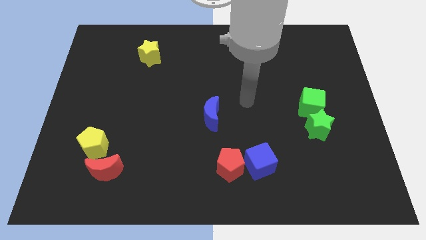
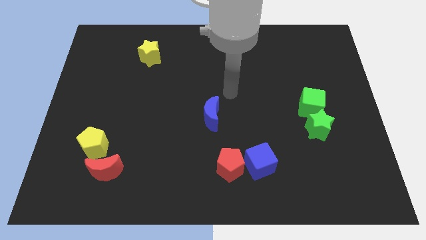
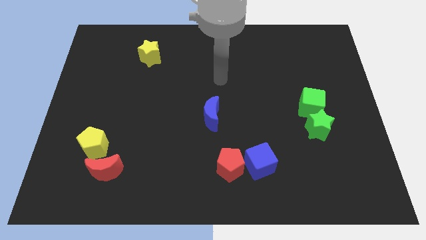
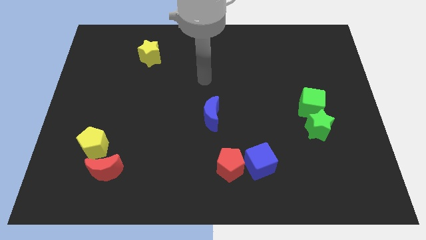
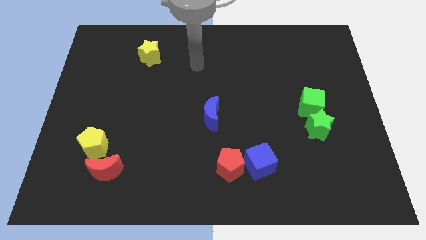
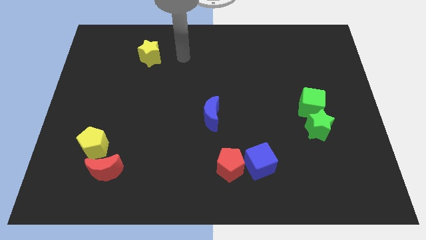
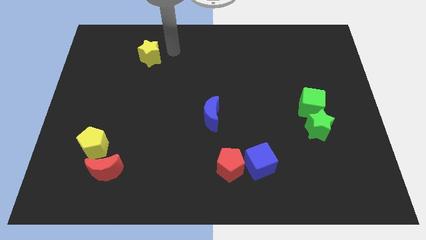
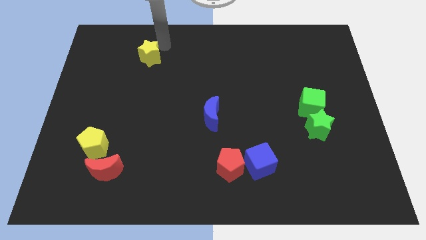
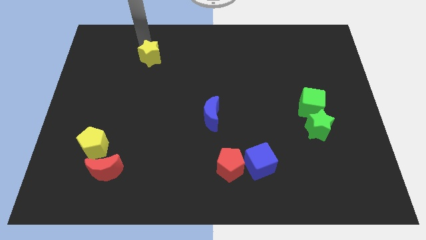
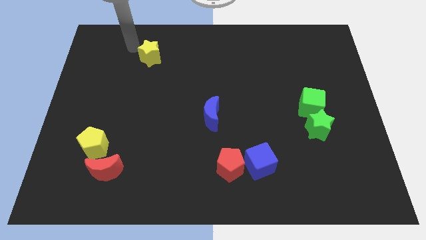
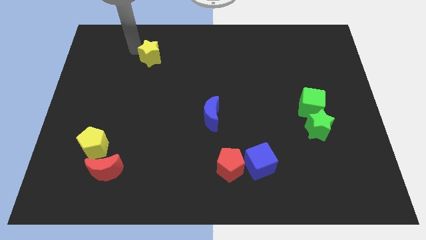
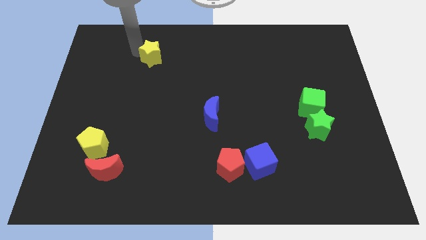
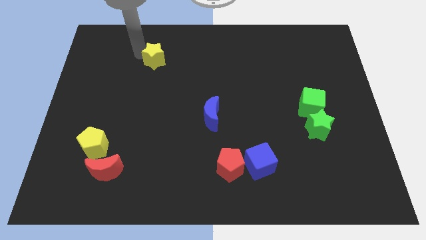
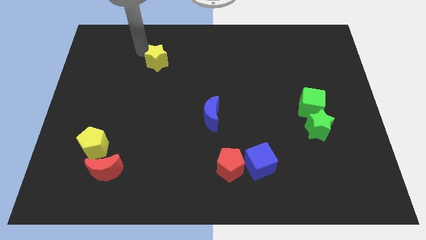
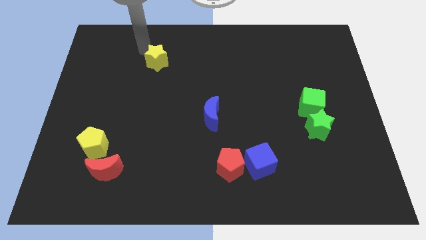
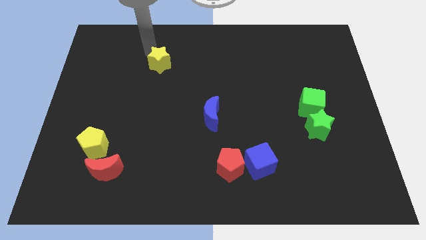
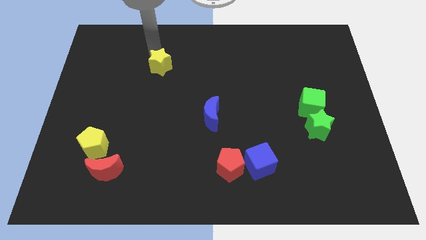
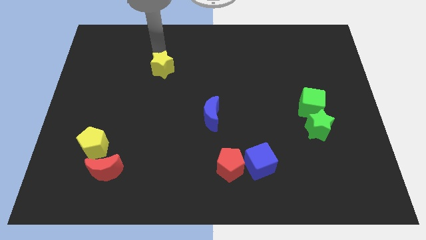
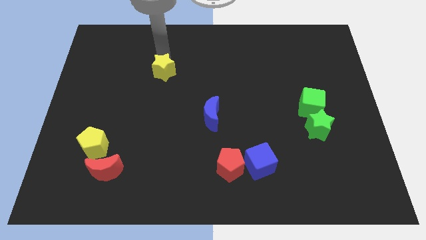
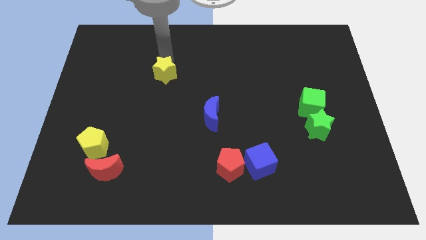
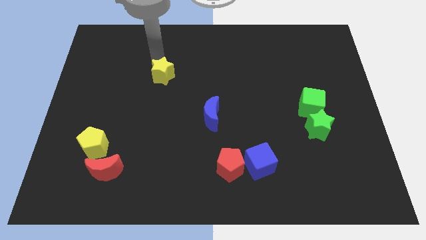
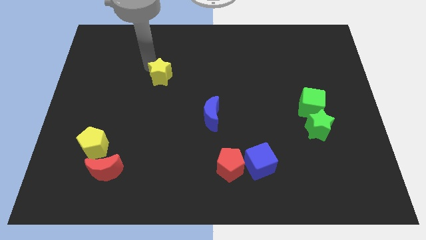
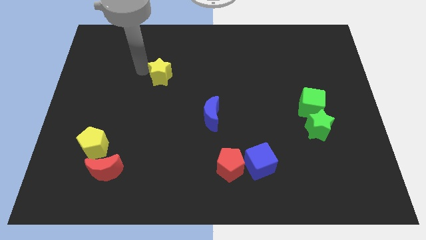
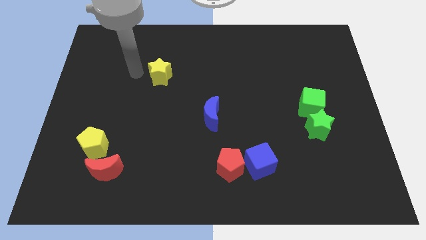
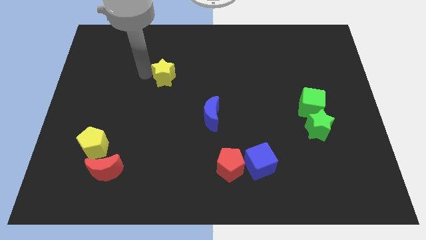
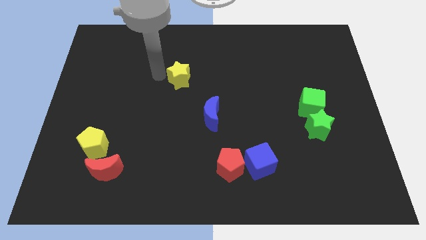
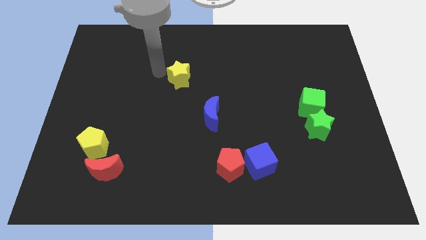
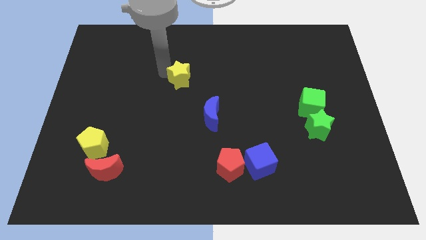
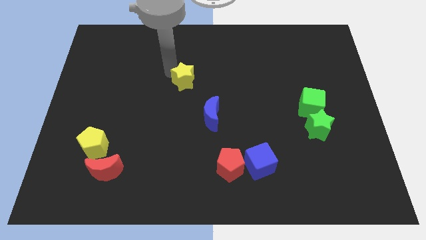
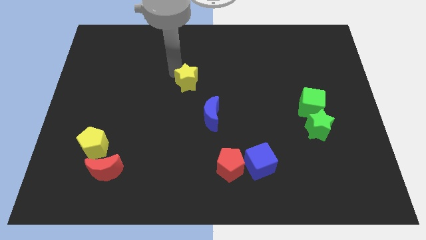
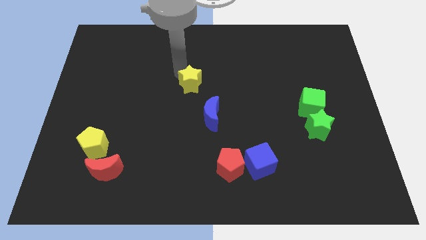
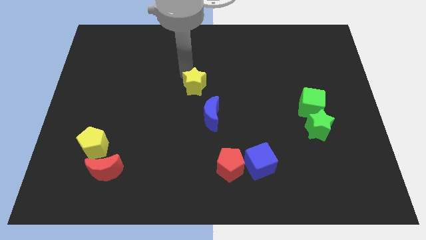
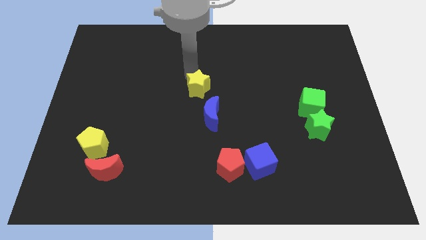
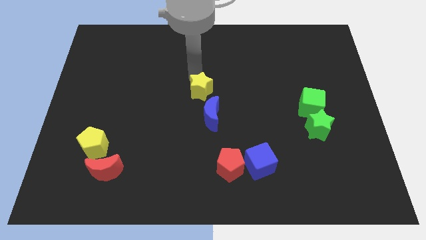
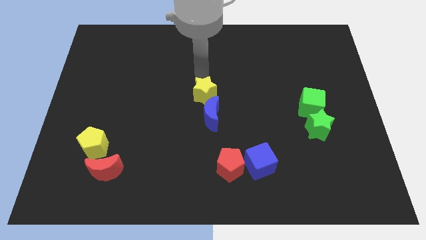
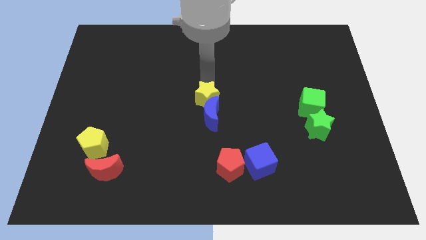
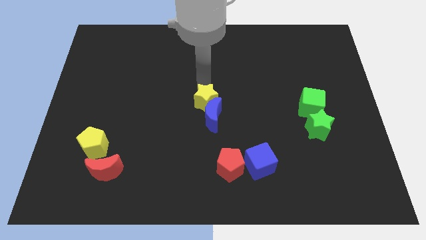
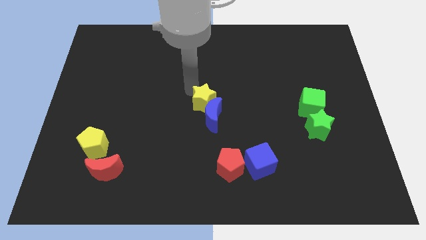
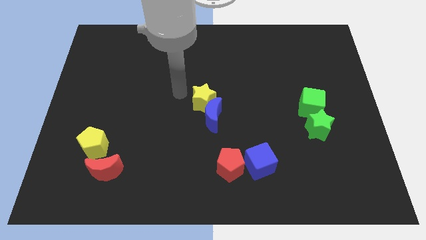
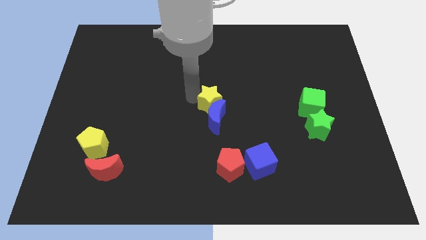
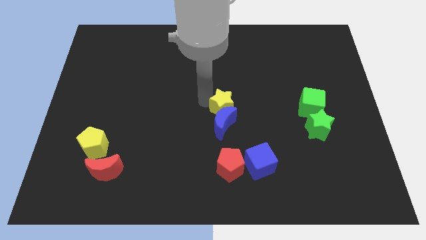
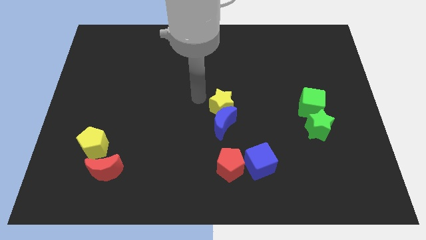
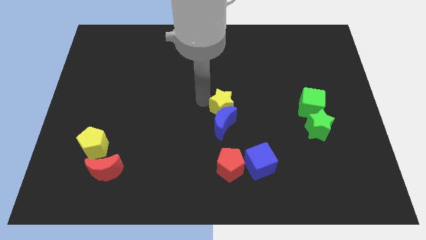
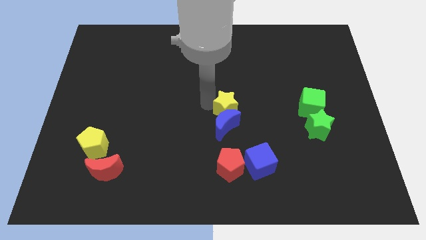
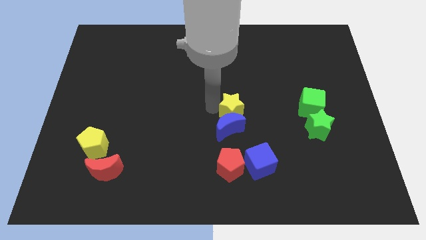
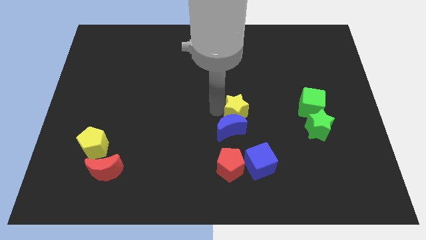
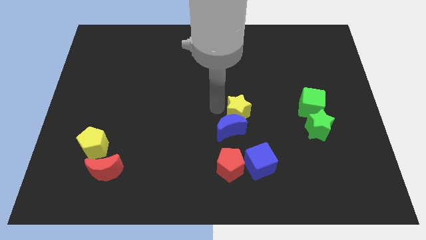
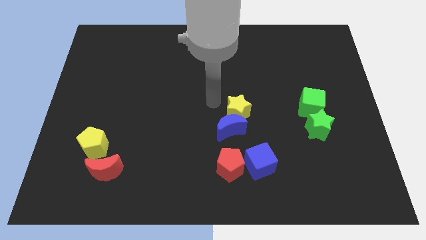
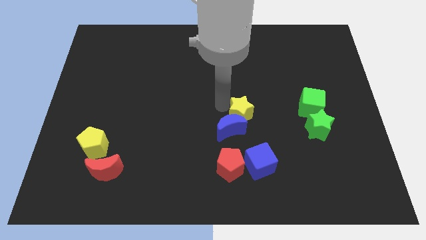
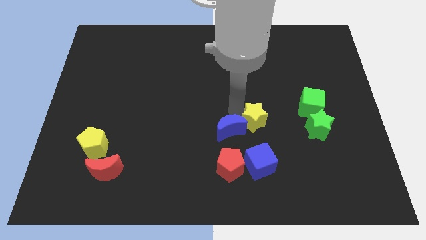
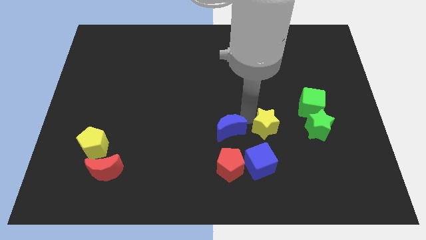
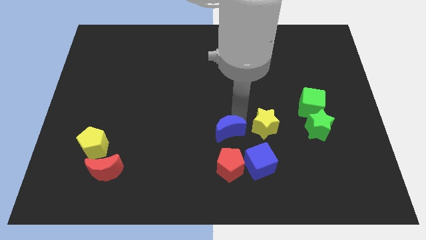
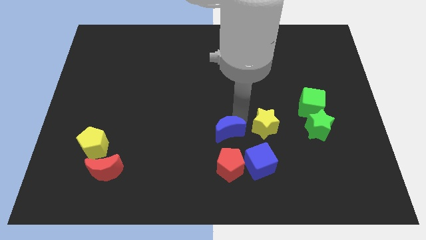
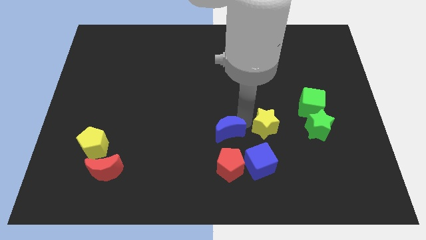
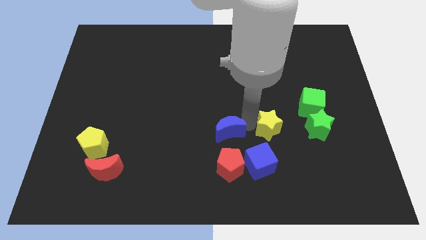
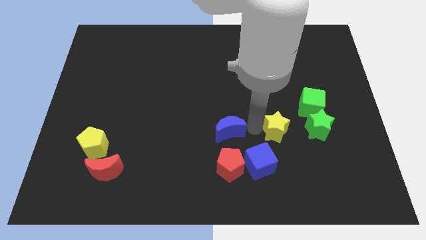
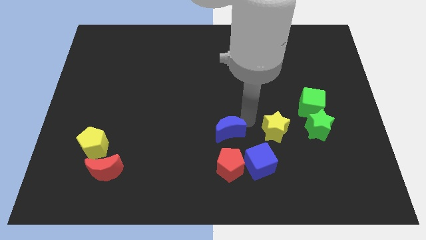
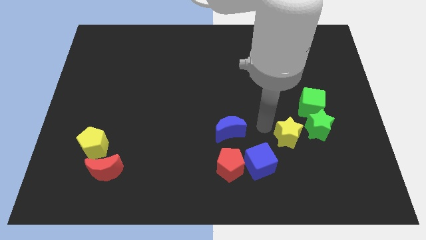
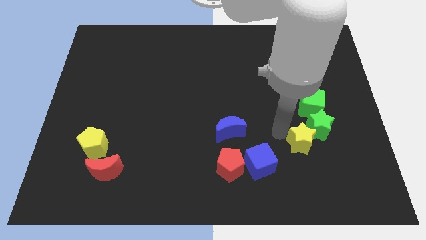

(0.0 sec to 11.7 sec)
push the yellow star to the bottom of the green cube

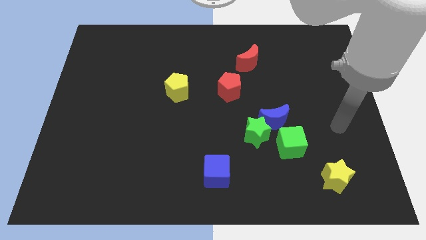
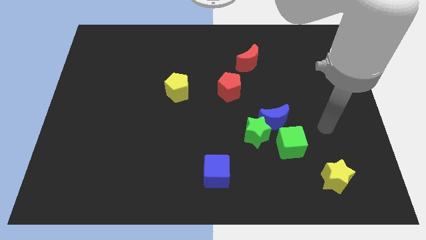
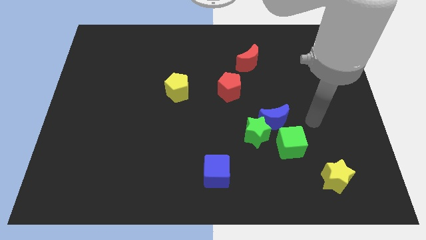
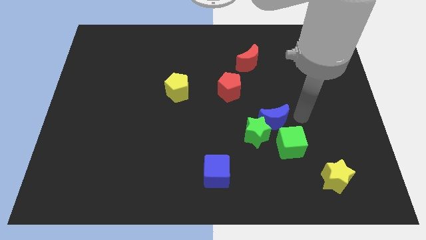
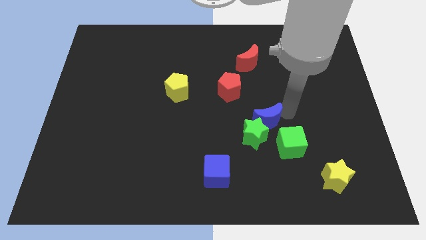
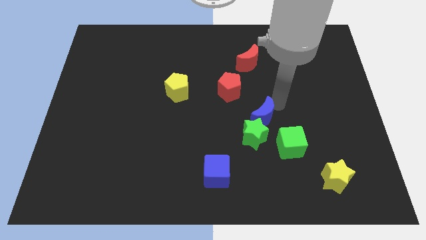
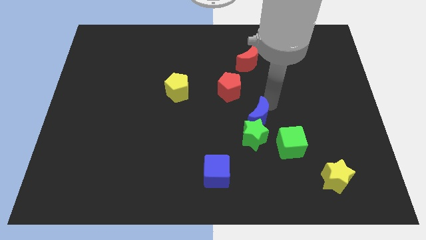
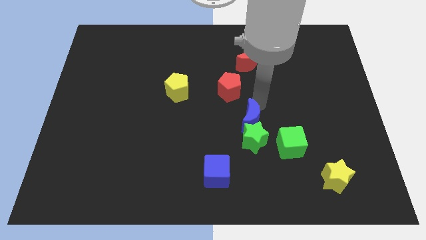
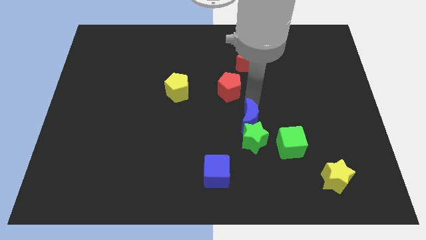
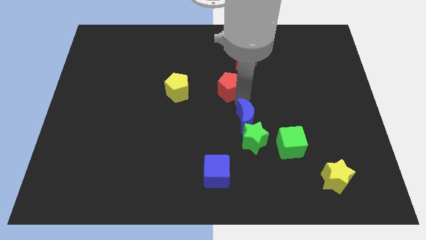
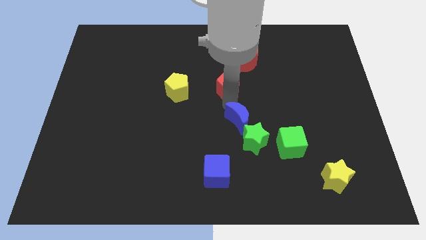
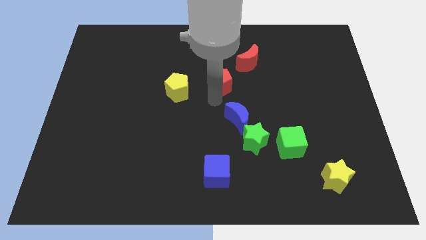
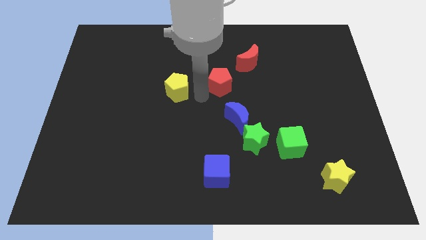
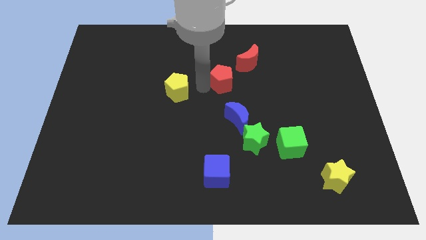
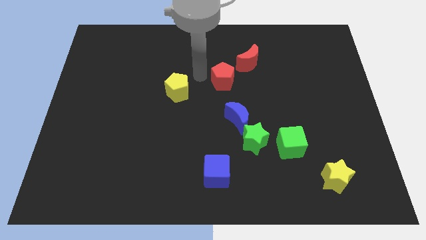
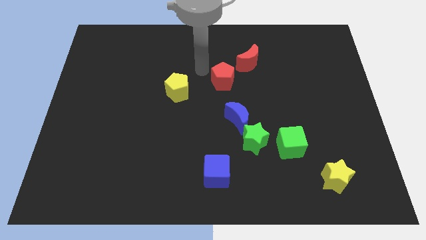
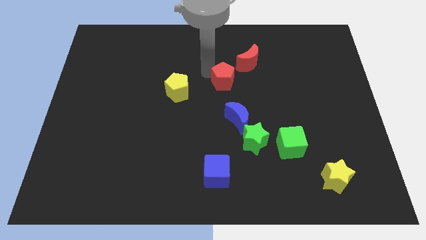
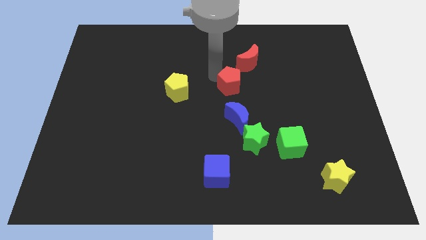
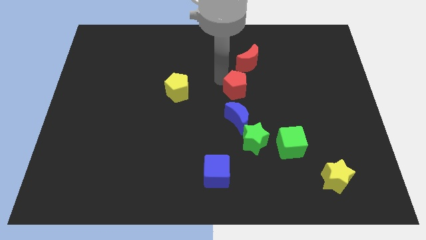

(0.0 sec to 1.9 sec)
slide the red pentagon to the bottom side of the red moon
